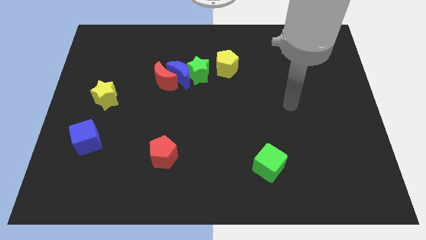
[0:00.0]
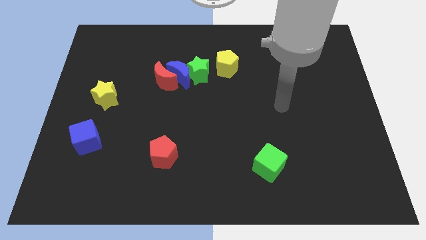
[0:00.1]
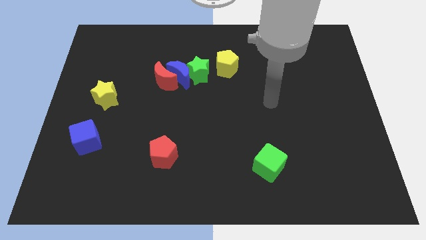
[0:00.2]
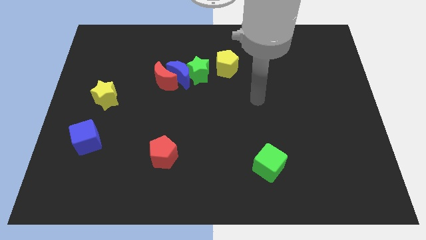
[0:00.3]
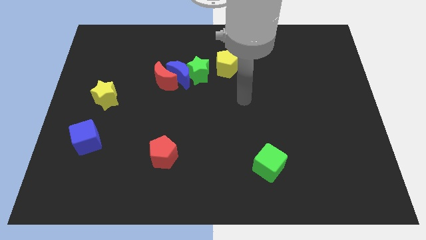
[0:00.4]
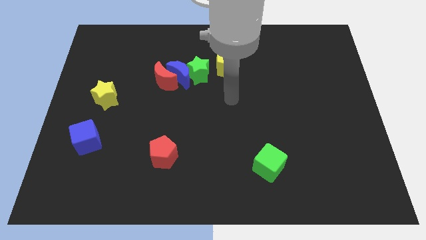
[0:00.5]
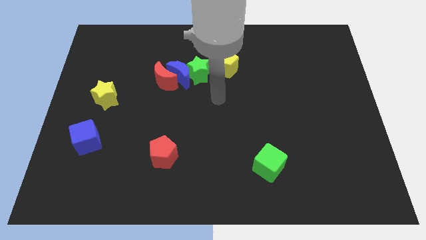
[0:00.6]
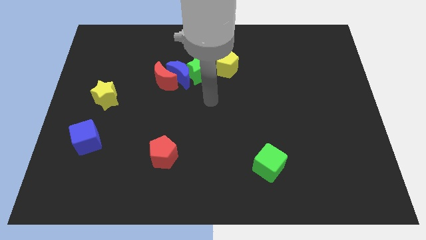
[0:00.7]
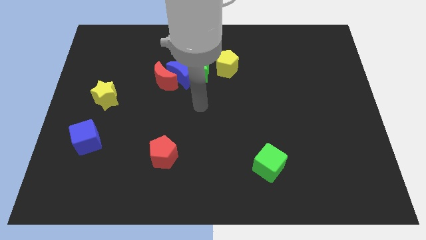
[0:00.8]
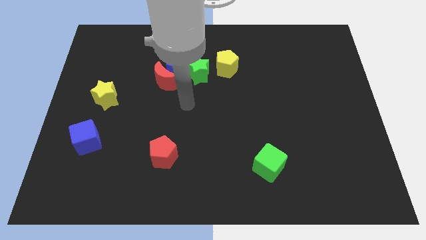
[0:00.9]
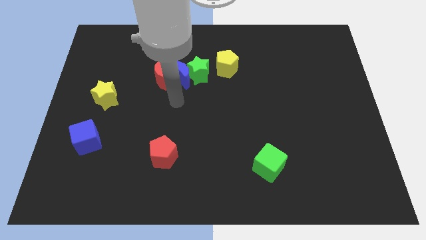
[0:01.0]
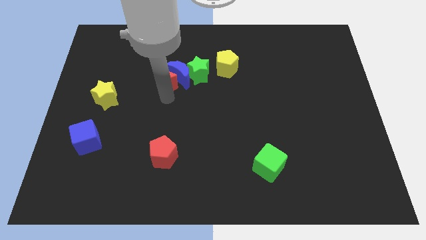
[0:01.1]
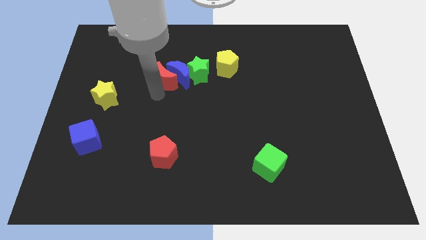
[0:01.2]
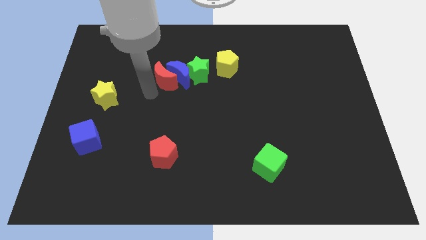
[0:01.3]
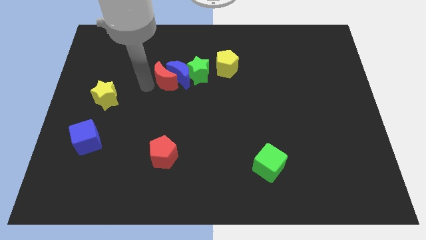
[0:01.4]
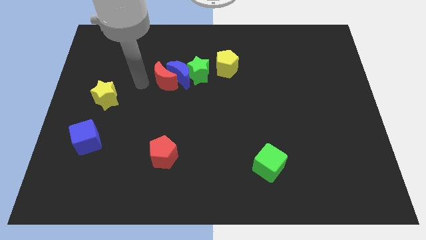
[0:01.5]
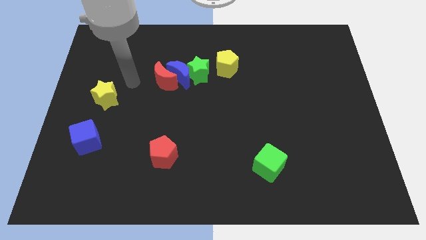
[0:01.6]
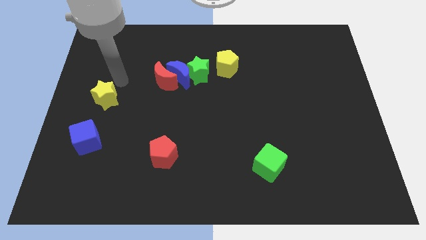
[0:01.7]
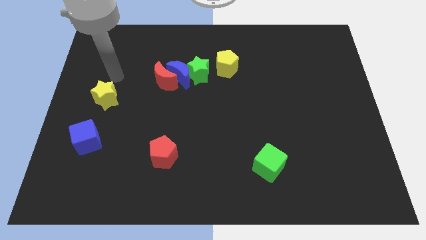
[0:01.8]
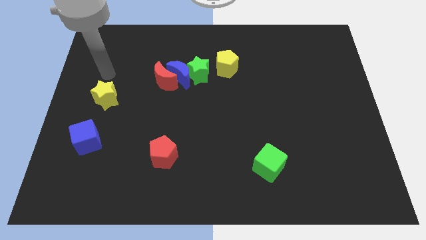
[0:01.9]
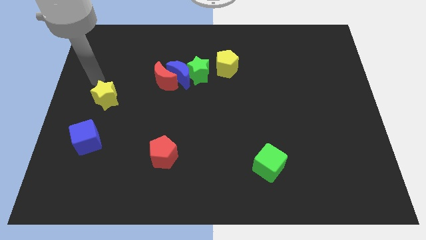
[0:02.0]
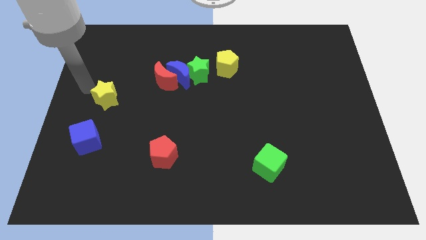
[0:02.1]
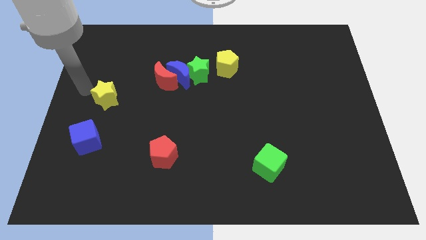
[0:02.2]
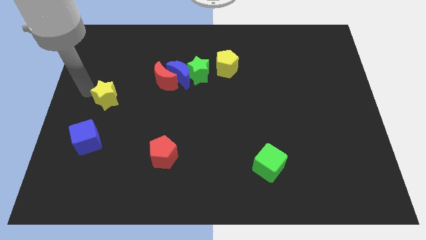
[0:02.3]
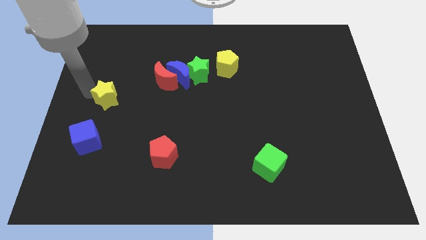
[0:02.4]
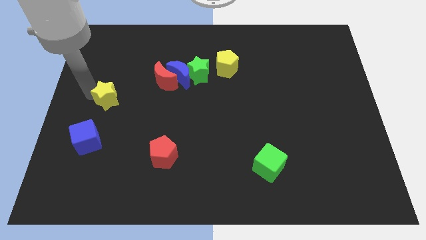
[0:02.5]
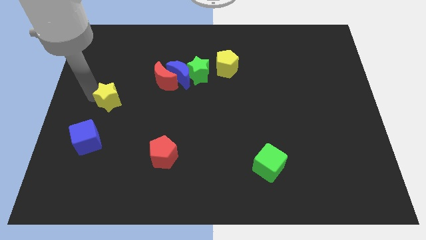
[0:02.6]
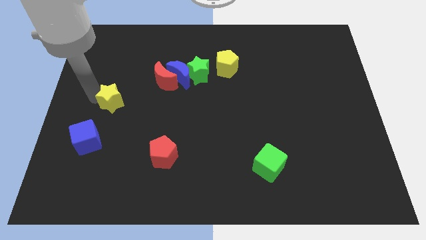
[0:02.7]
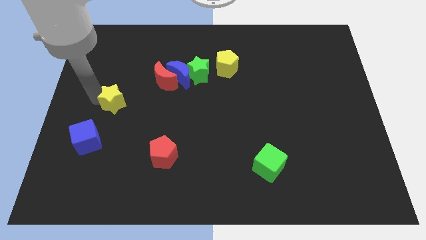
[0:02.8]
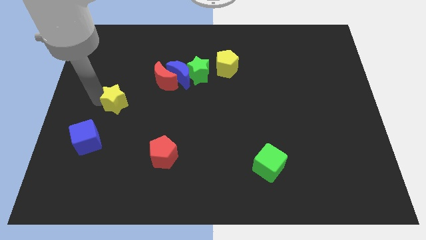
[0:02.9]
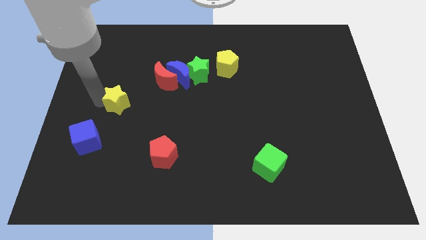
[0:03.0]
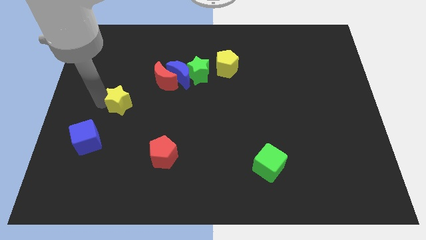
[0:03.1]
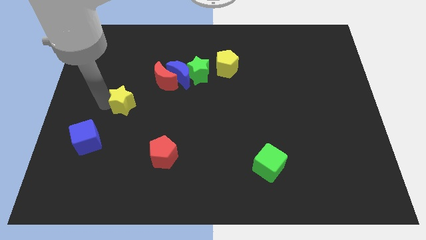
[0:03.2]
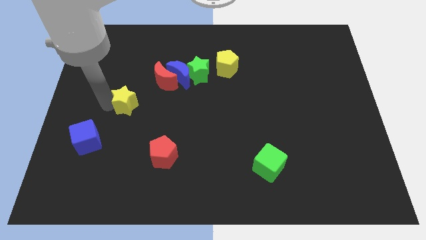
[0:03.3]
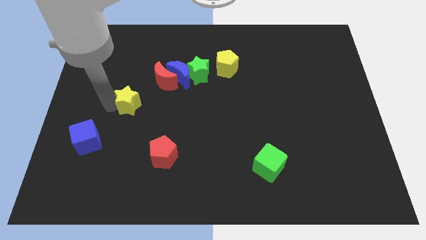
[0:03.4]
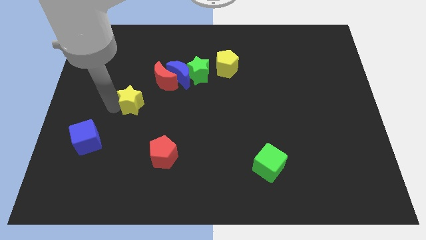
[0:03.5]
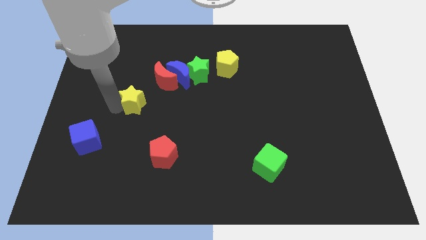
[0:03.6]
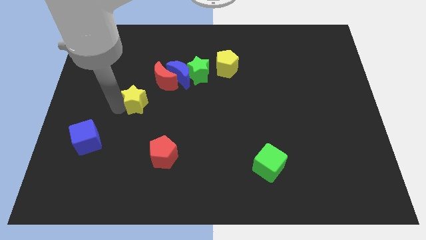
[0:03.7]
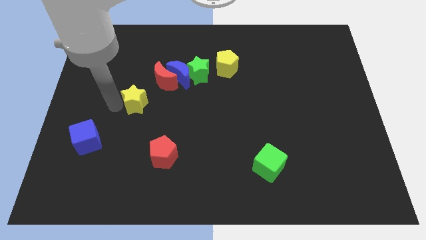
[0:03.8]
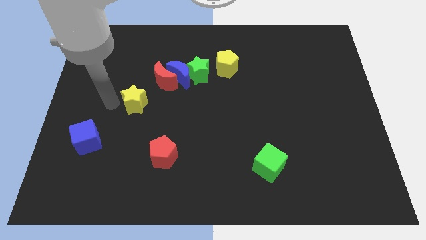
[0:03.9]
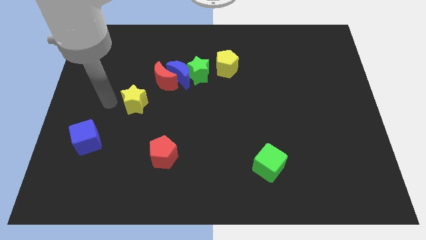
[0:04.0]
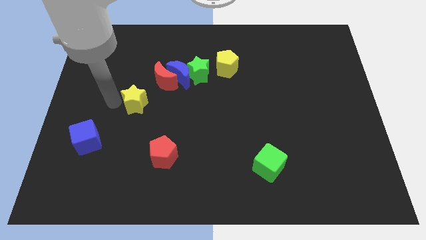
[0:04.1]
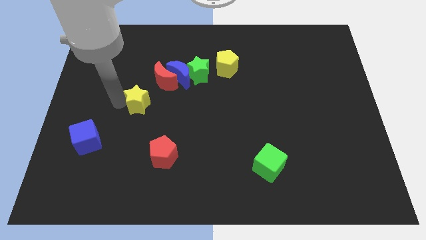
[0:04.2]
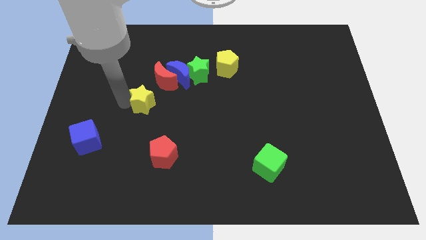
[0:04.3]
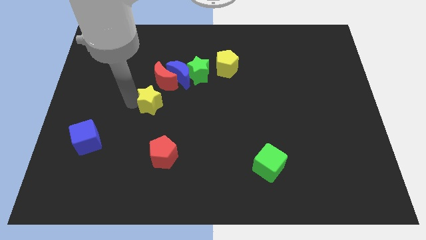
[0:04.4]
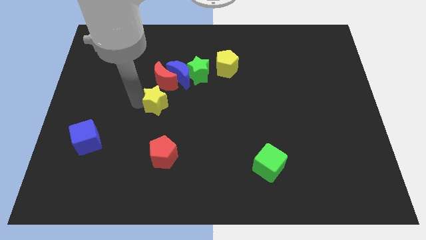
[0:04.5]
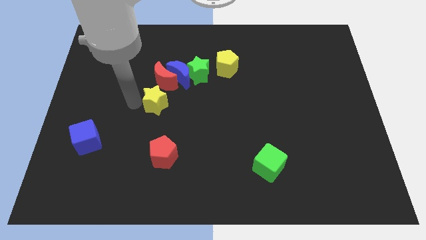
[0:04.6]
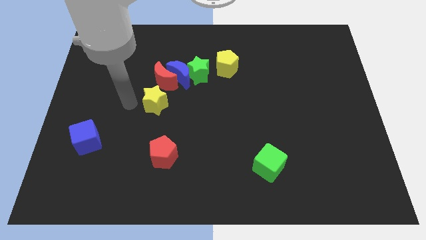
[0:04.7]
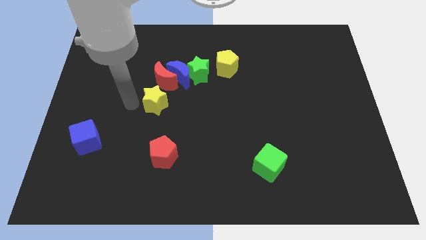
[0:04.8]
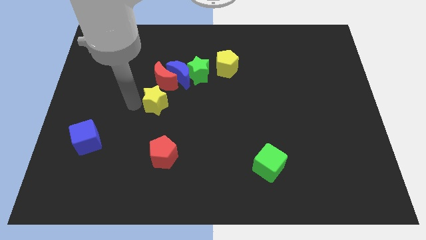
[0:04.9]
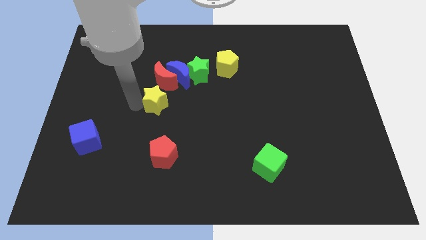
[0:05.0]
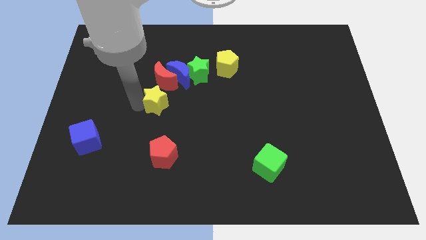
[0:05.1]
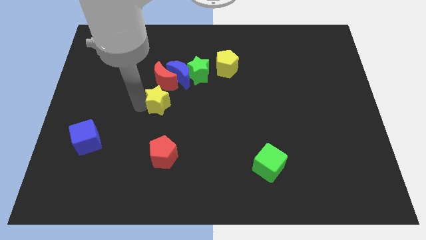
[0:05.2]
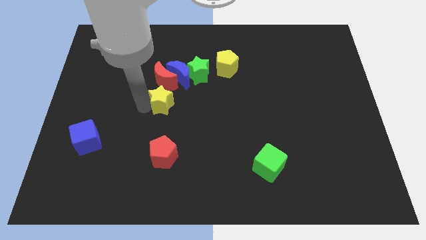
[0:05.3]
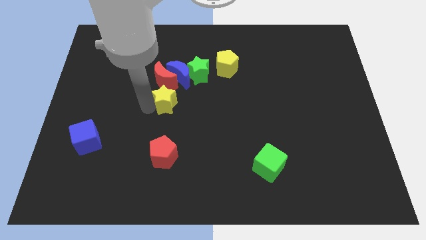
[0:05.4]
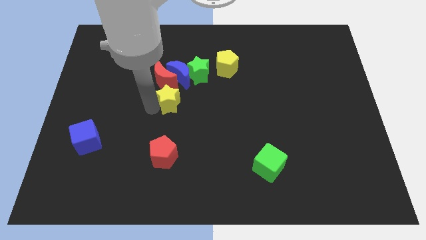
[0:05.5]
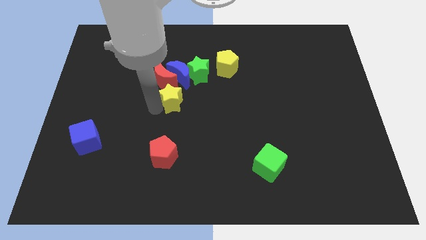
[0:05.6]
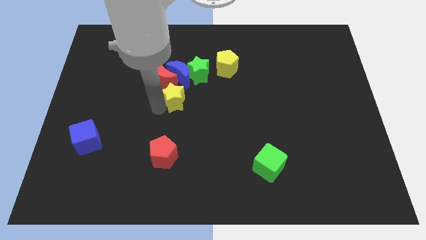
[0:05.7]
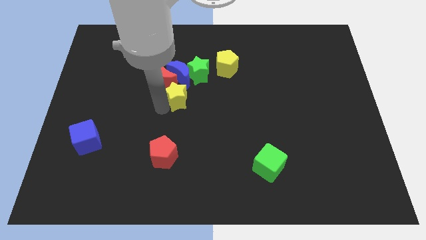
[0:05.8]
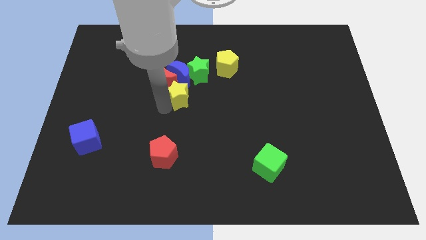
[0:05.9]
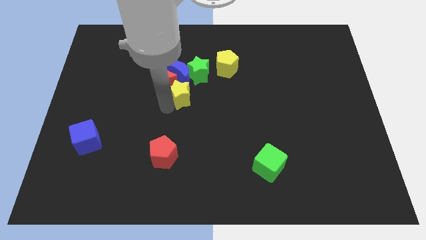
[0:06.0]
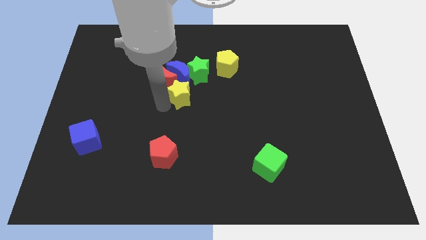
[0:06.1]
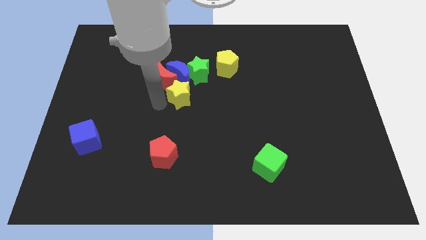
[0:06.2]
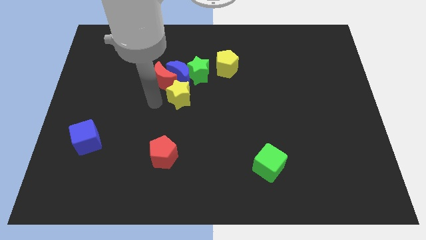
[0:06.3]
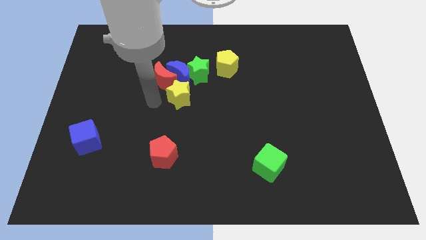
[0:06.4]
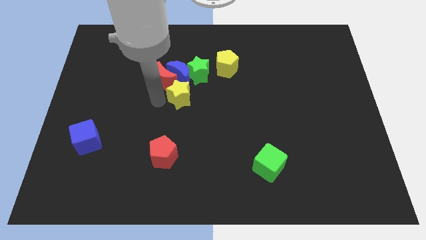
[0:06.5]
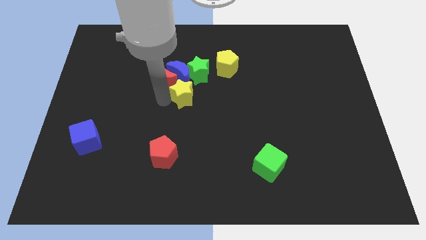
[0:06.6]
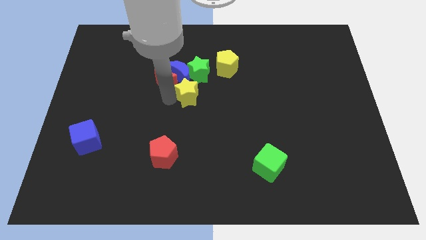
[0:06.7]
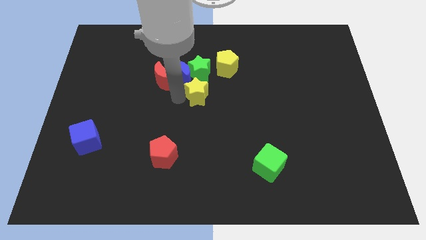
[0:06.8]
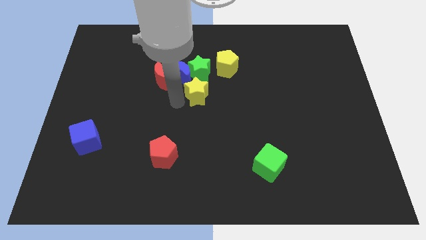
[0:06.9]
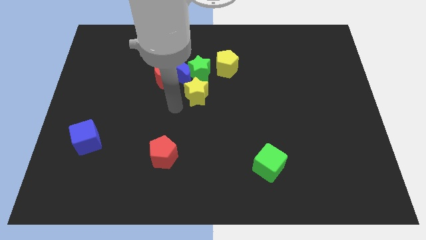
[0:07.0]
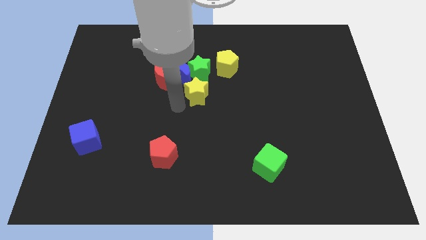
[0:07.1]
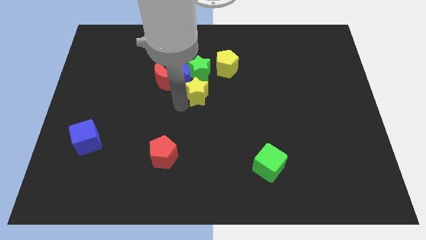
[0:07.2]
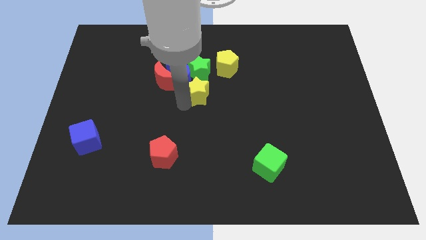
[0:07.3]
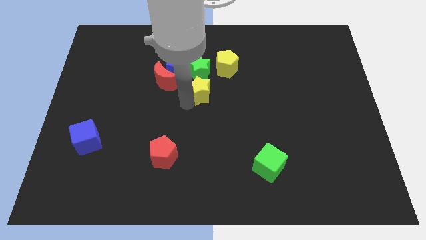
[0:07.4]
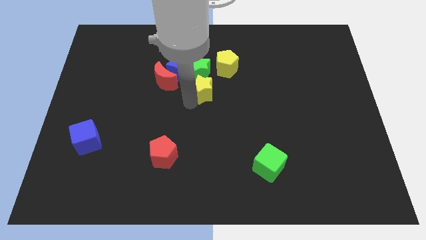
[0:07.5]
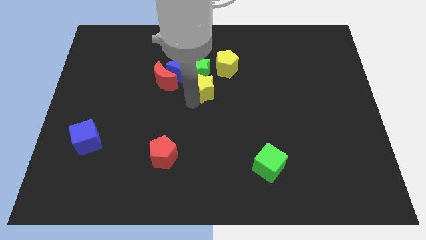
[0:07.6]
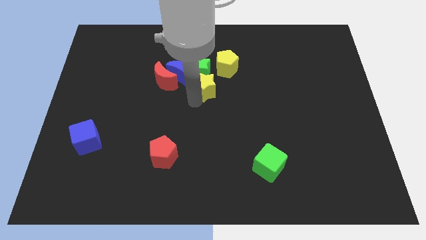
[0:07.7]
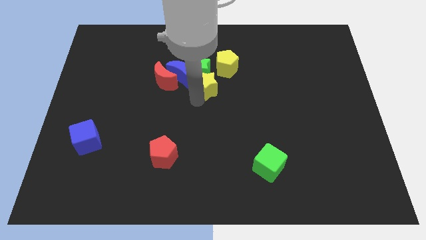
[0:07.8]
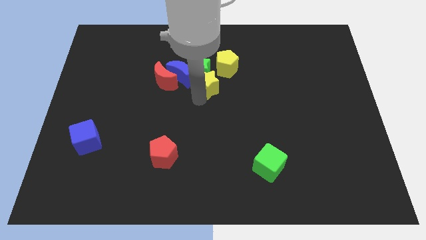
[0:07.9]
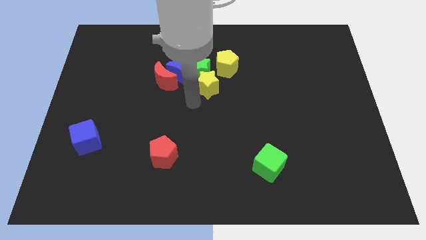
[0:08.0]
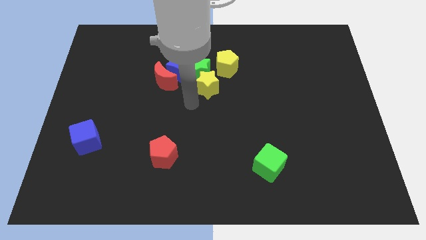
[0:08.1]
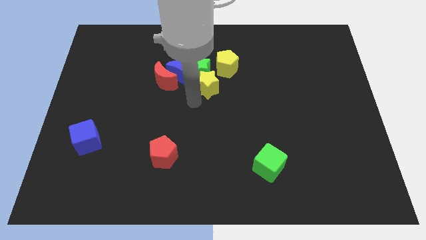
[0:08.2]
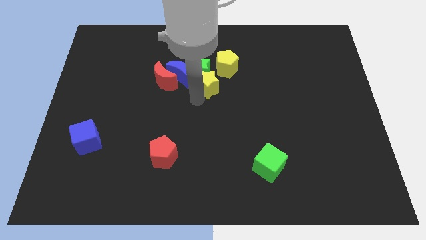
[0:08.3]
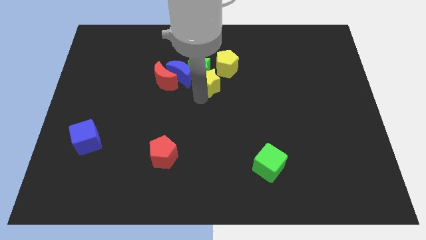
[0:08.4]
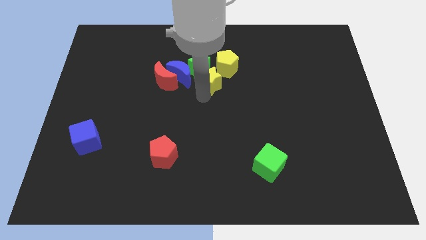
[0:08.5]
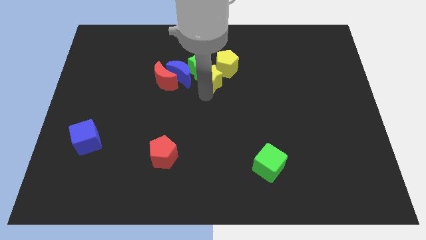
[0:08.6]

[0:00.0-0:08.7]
slide the yellow star towards the yellow pentagon
